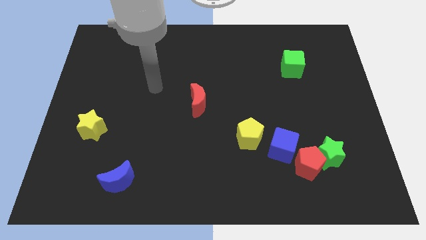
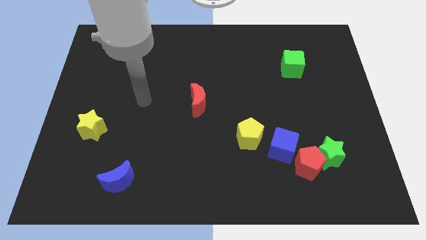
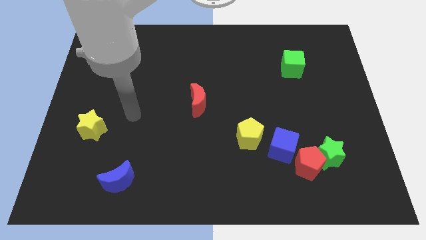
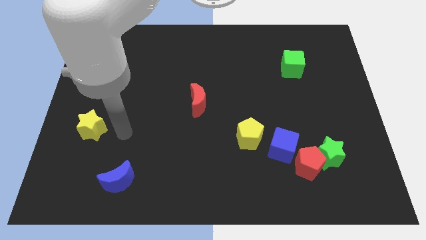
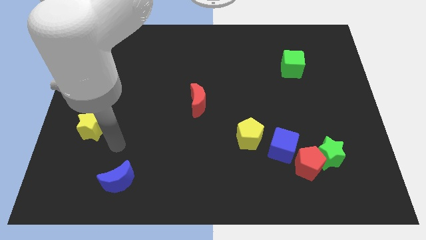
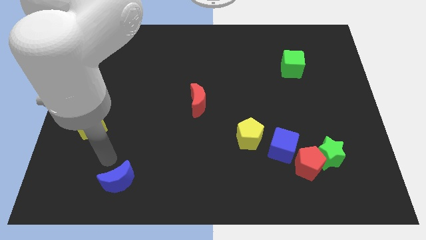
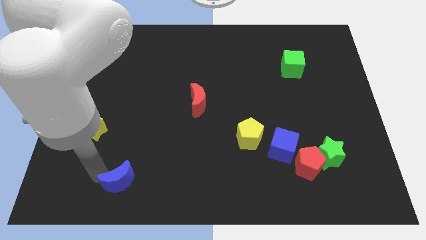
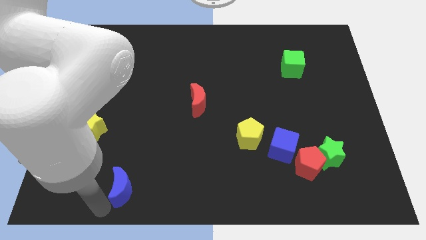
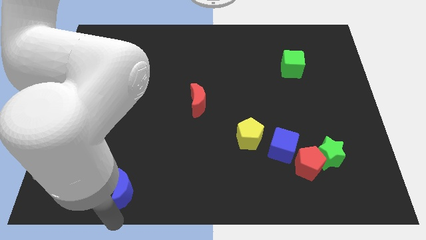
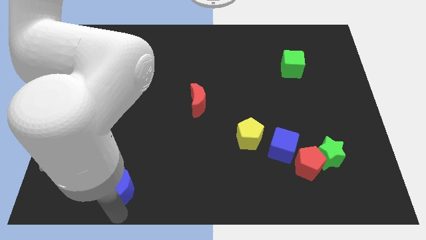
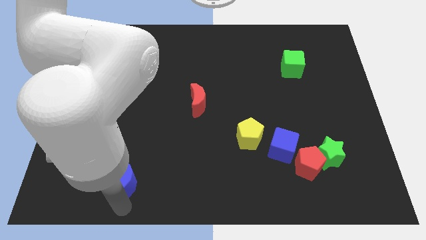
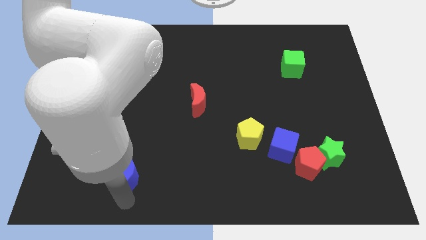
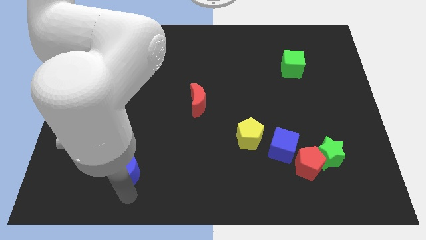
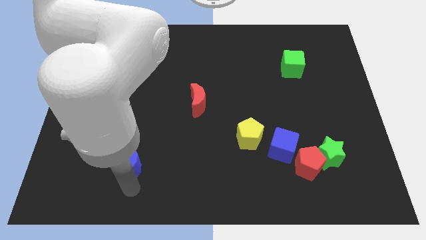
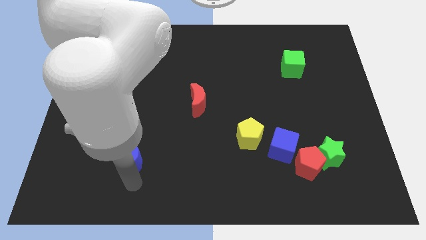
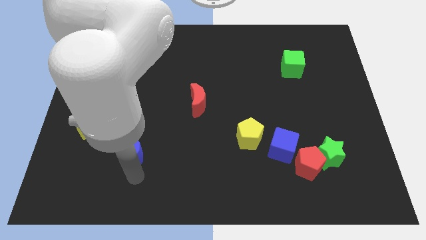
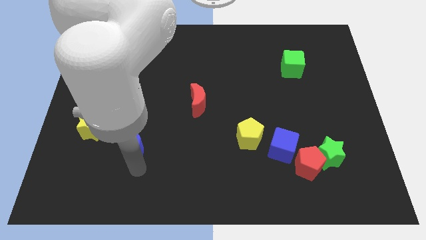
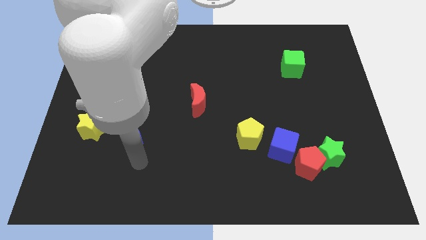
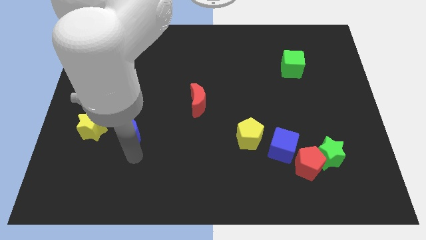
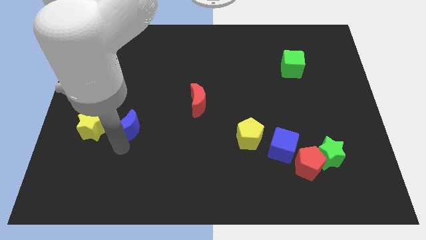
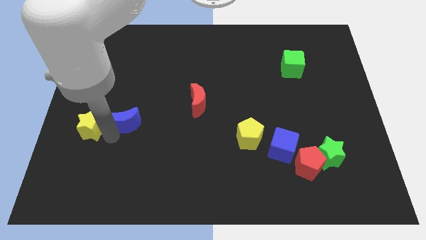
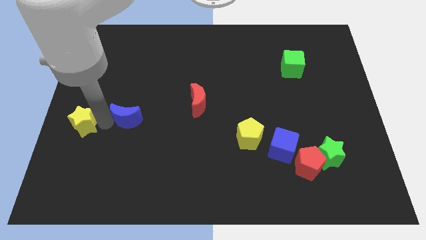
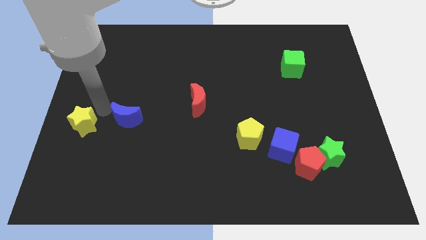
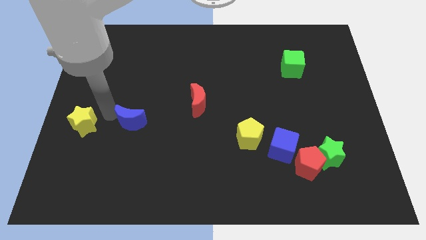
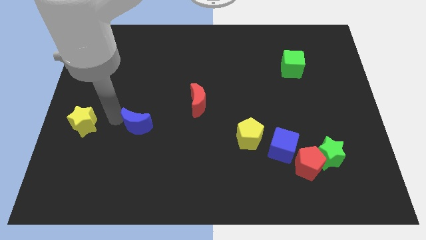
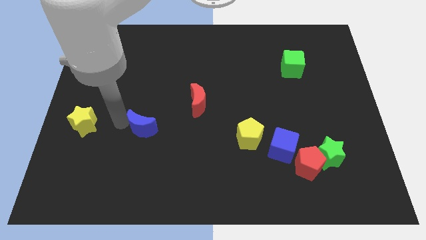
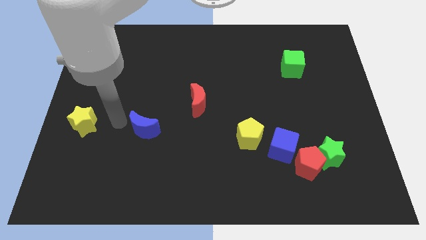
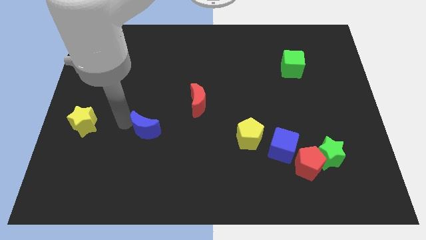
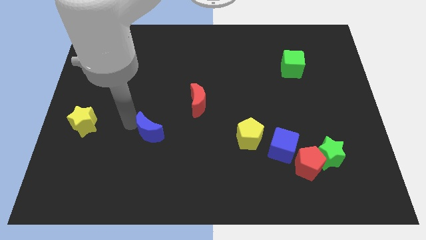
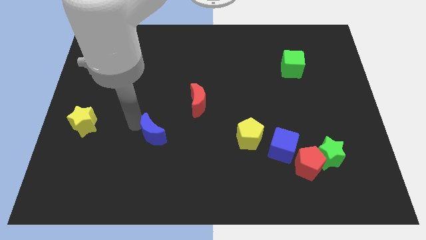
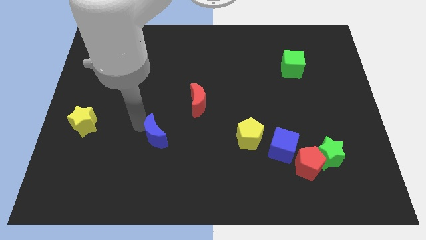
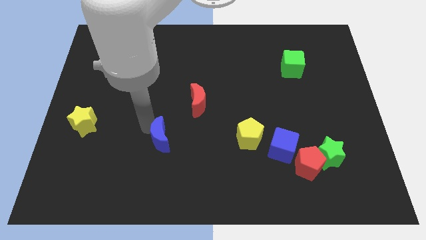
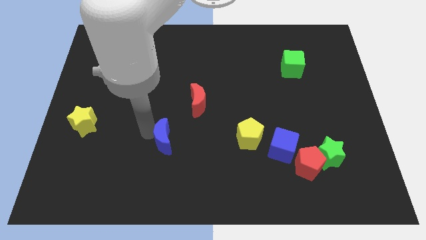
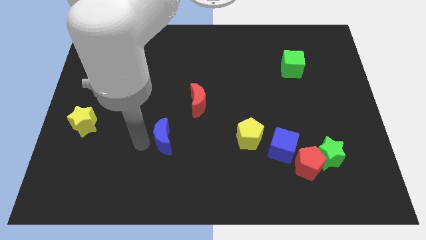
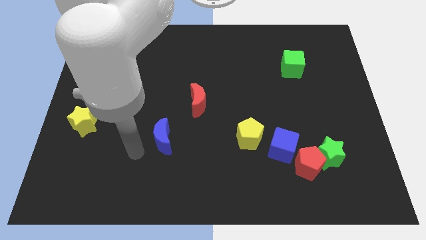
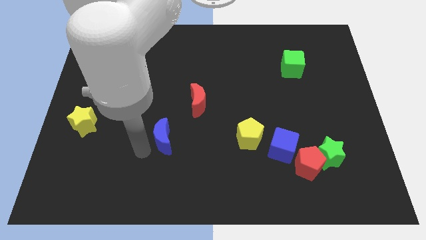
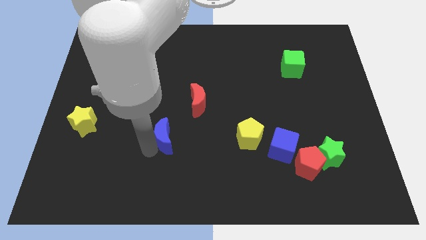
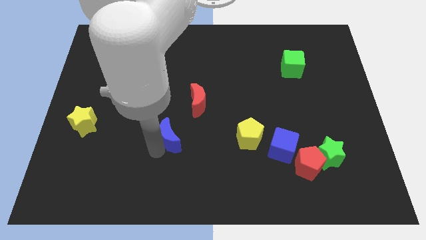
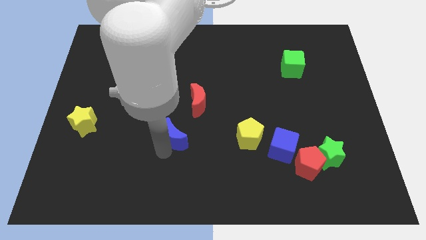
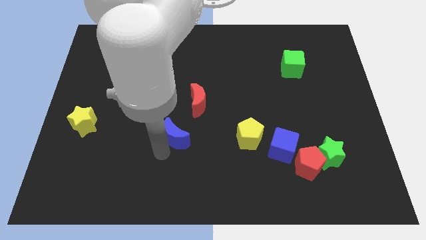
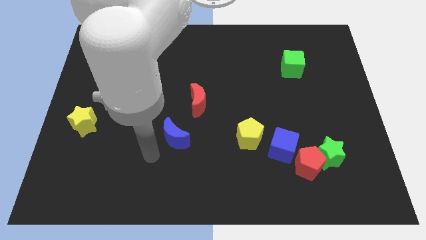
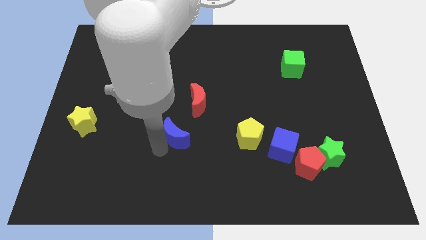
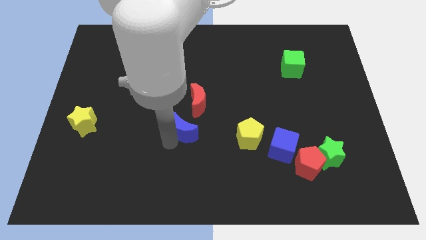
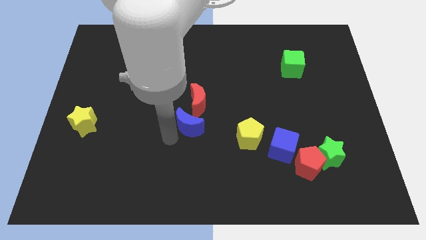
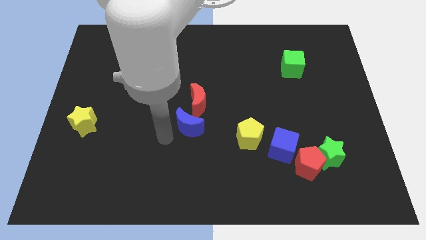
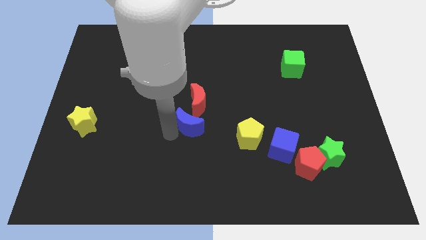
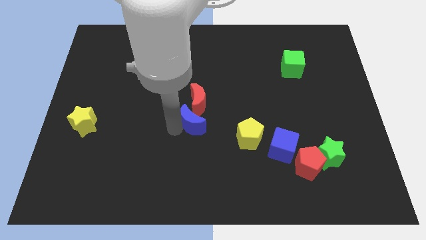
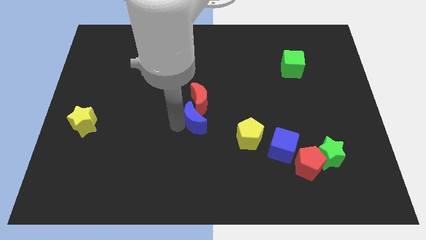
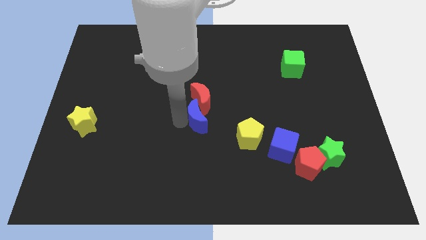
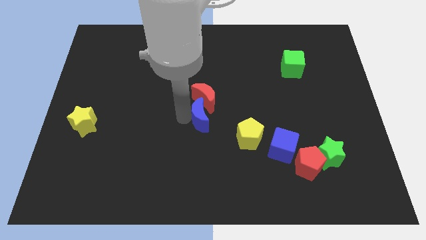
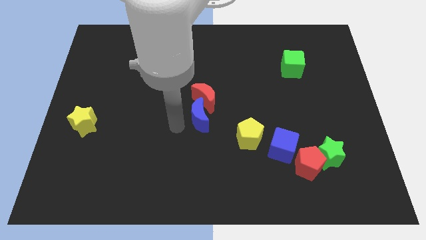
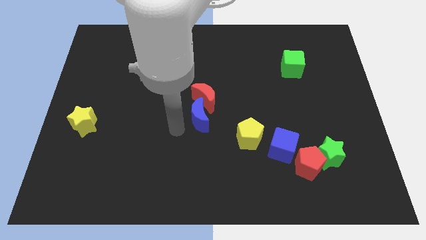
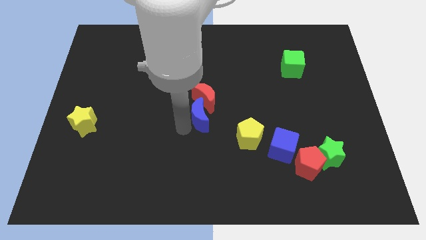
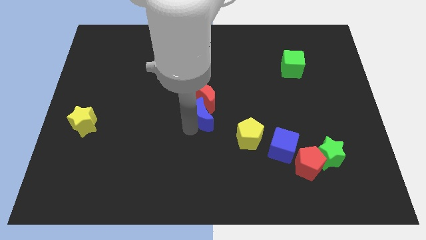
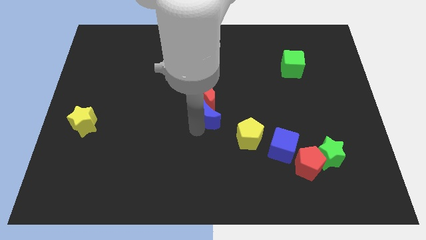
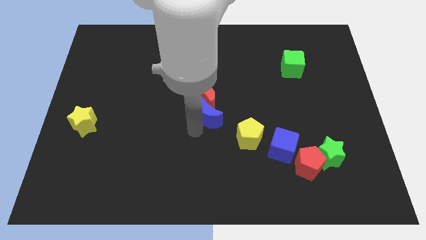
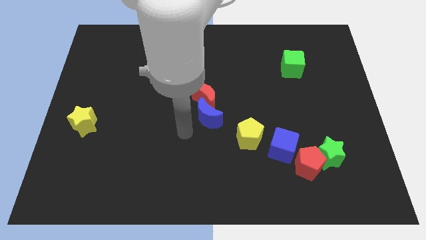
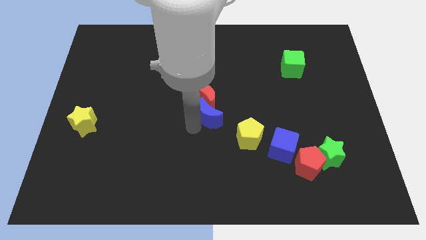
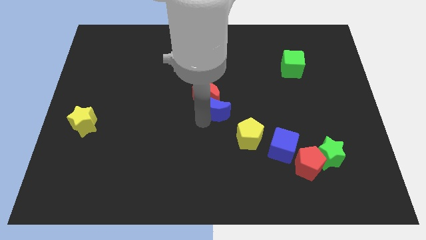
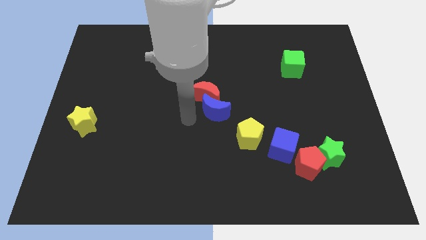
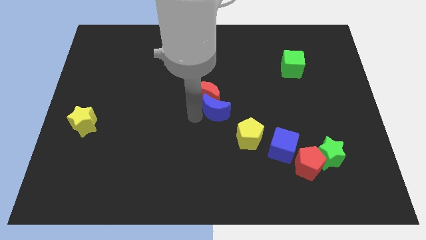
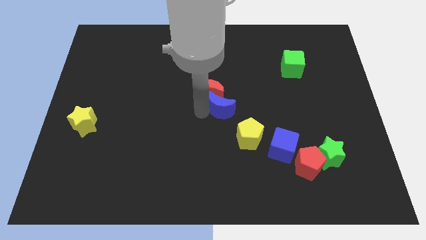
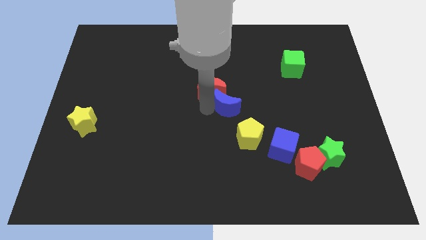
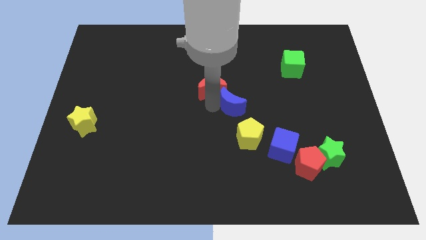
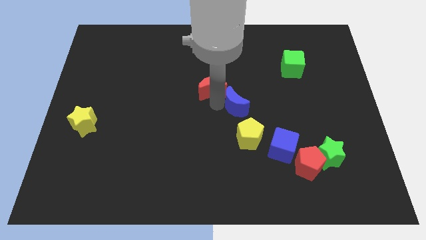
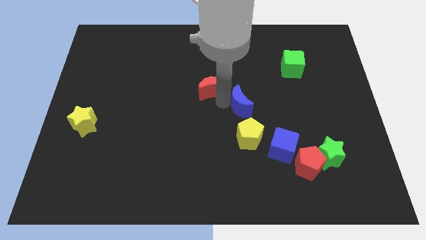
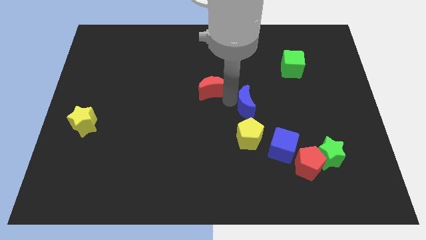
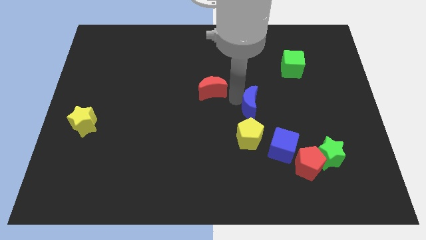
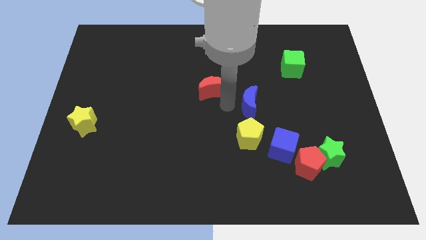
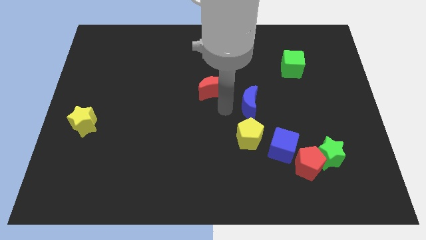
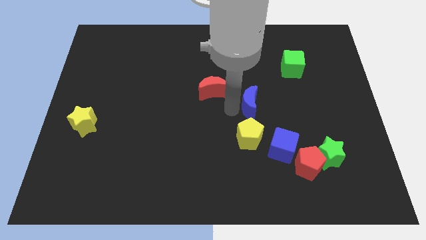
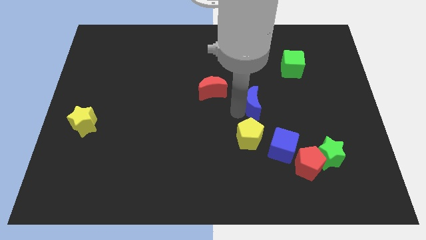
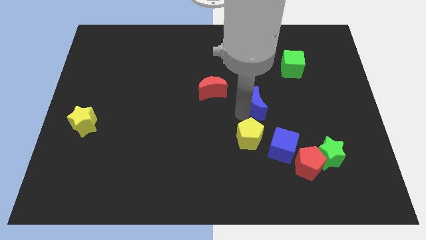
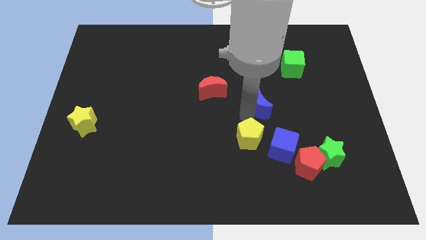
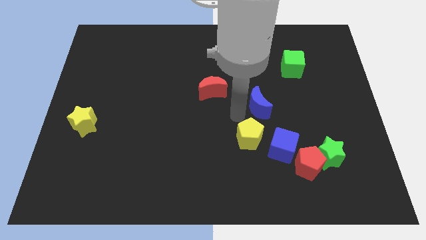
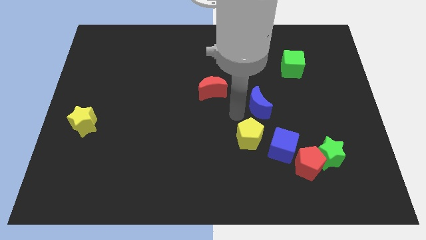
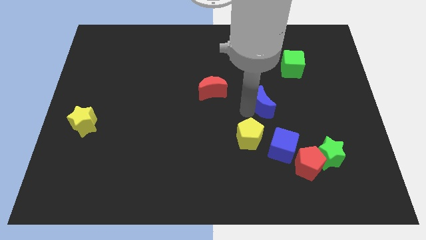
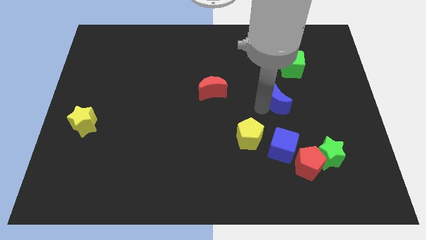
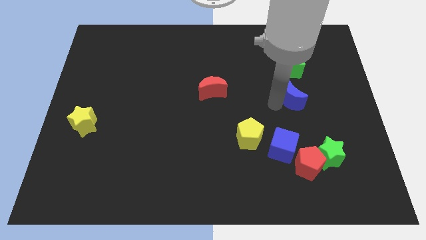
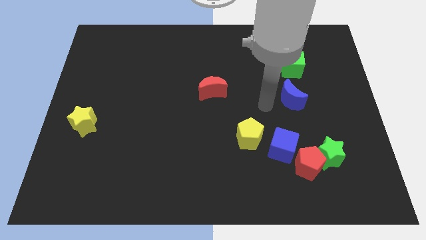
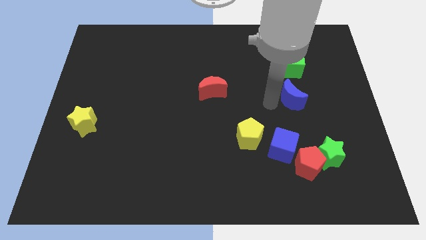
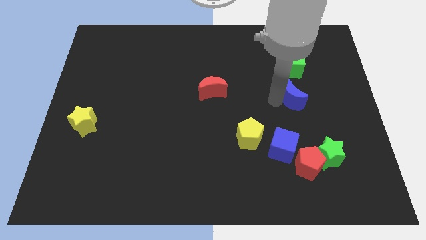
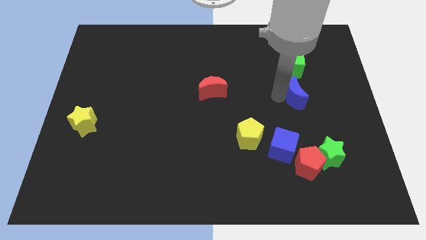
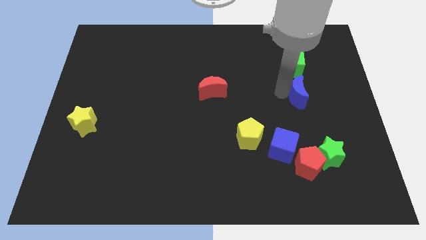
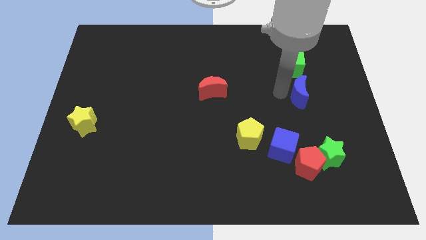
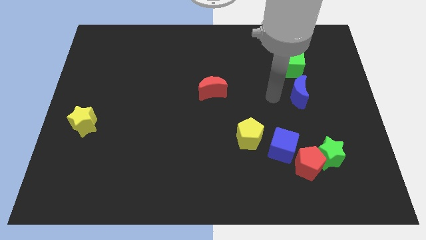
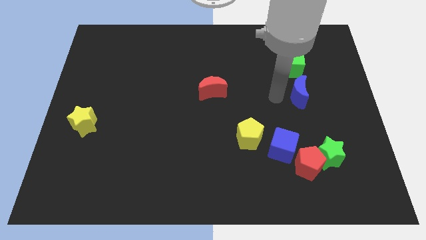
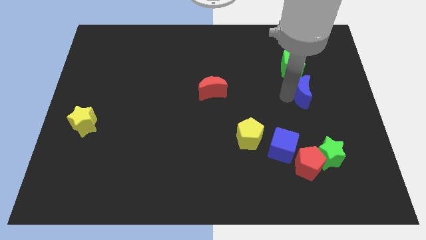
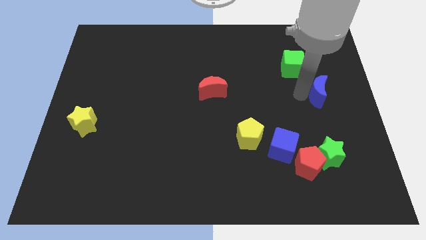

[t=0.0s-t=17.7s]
push the blue moon to the right side of the board
